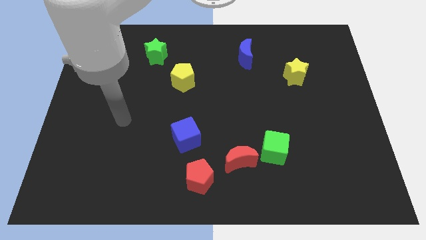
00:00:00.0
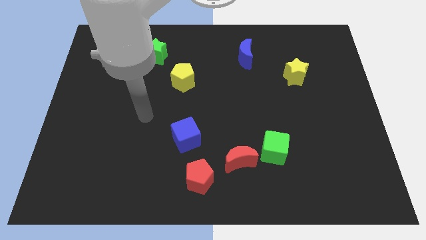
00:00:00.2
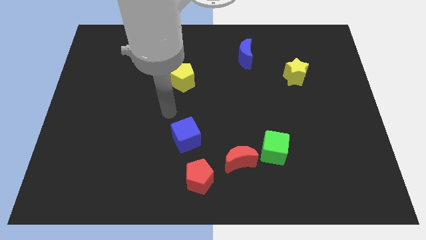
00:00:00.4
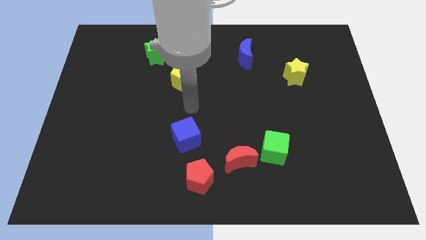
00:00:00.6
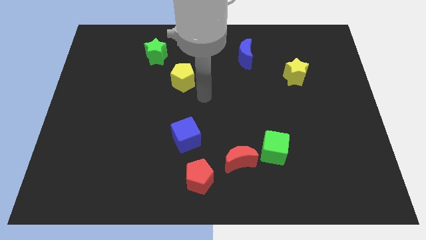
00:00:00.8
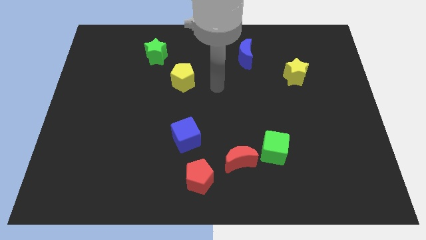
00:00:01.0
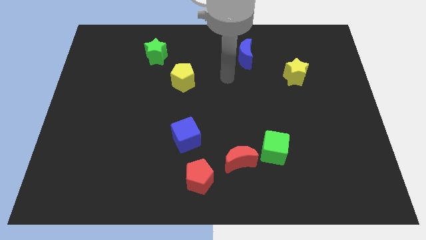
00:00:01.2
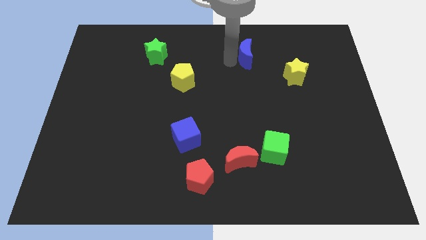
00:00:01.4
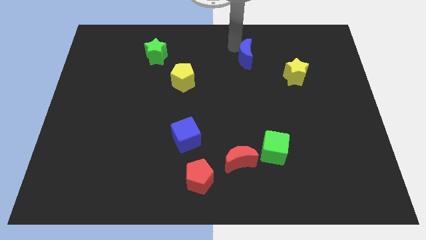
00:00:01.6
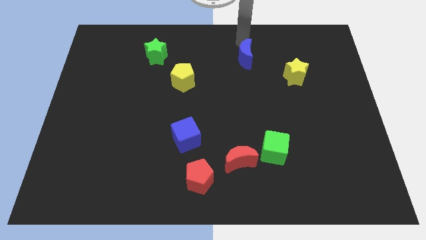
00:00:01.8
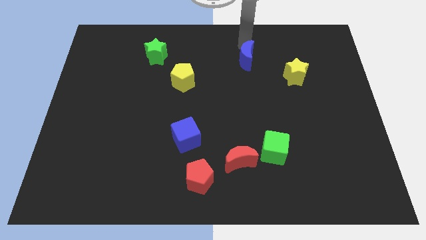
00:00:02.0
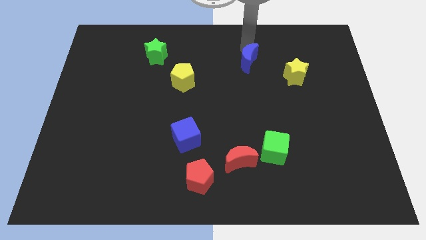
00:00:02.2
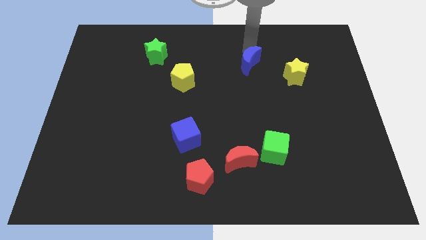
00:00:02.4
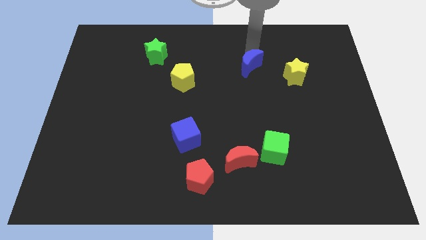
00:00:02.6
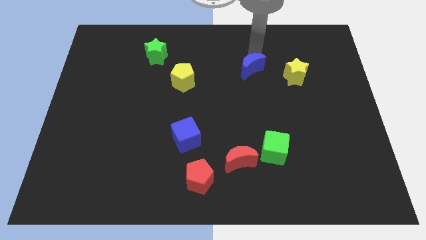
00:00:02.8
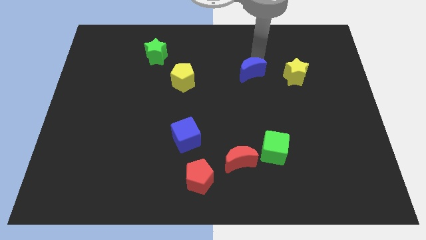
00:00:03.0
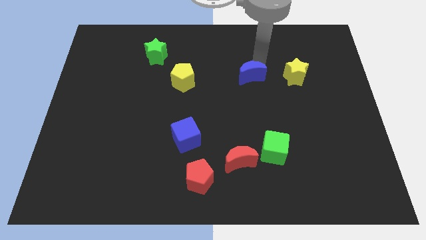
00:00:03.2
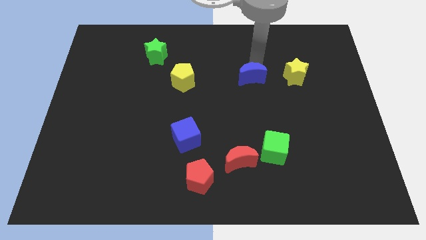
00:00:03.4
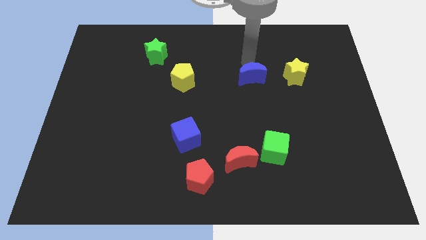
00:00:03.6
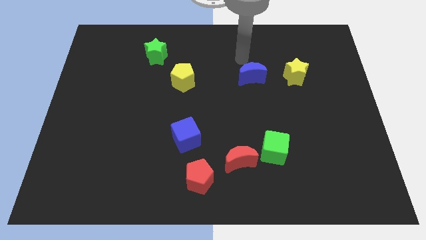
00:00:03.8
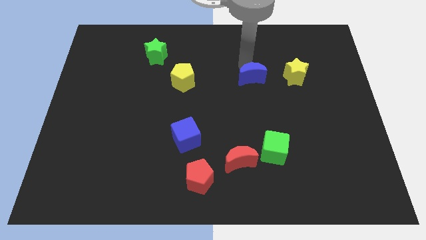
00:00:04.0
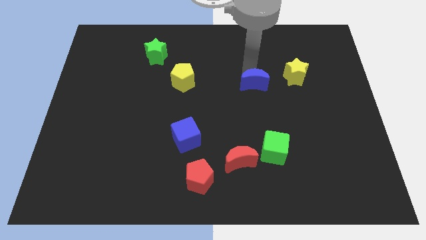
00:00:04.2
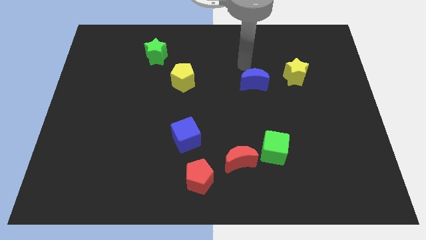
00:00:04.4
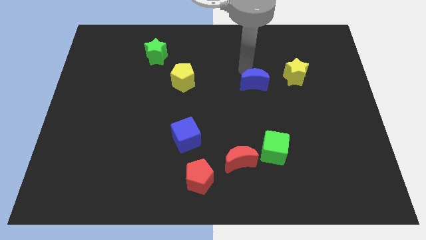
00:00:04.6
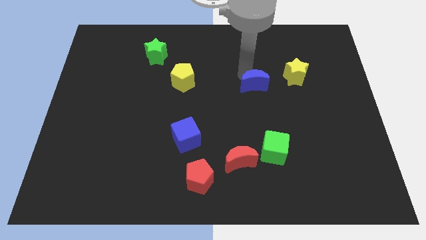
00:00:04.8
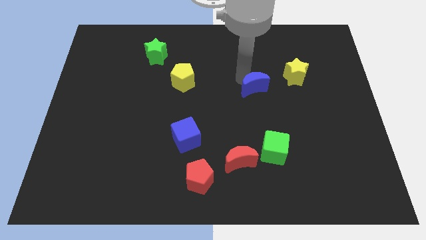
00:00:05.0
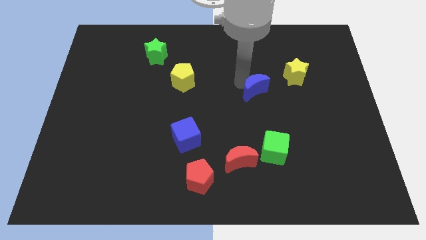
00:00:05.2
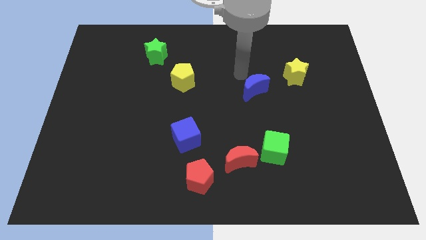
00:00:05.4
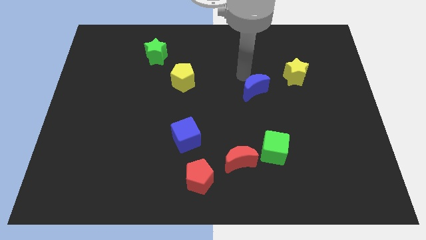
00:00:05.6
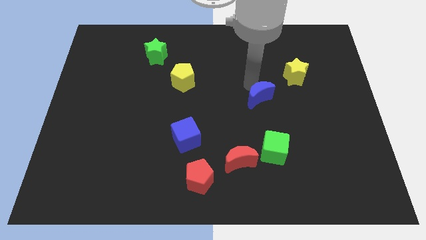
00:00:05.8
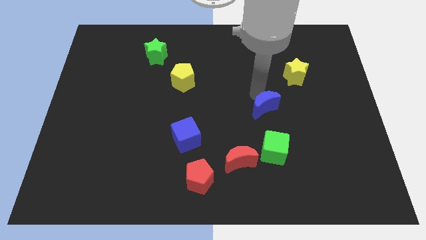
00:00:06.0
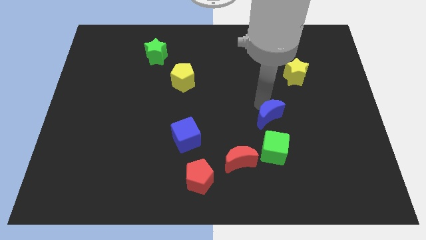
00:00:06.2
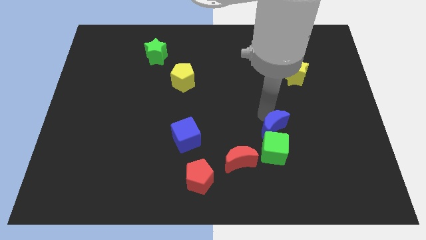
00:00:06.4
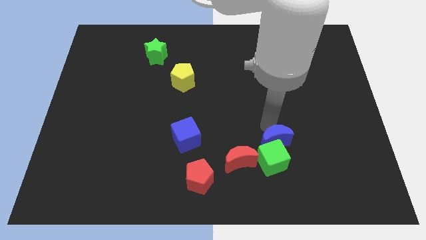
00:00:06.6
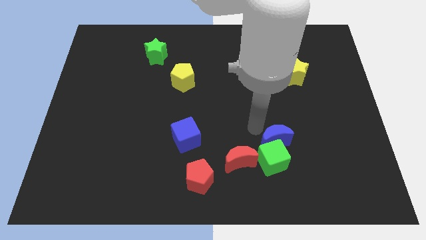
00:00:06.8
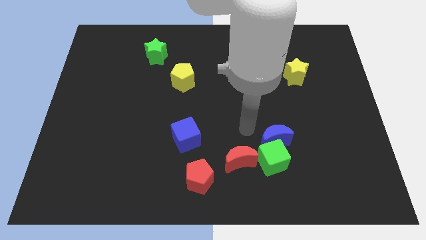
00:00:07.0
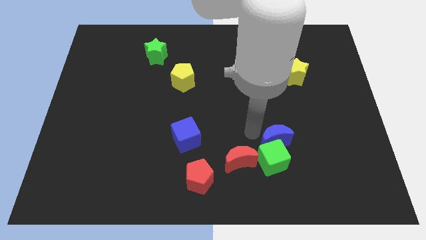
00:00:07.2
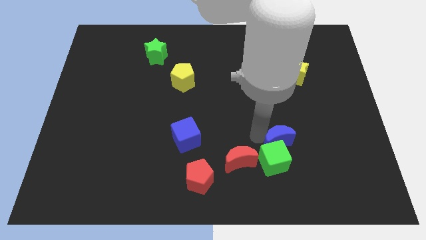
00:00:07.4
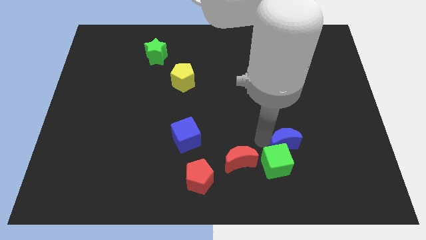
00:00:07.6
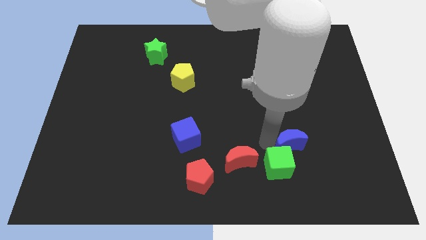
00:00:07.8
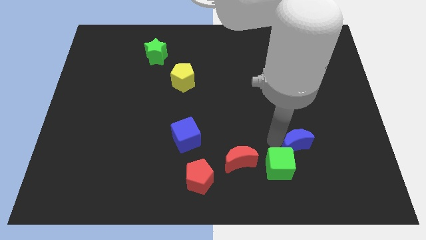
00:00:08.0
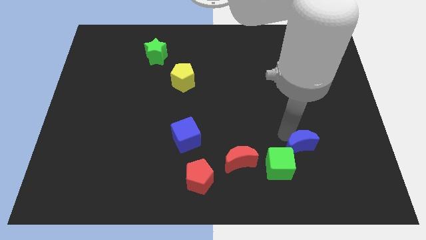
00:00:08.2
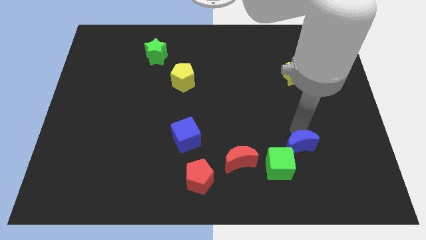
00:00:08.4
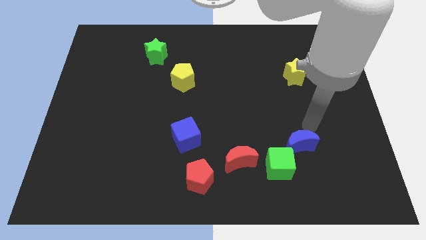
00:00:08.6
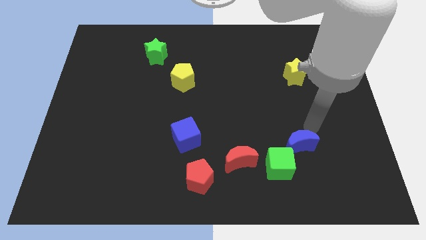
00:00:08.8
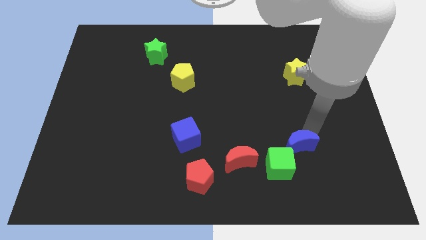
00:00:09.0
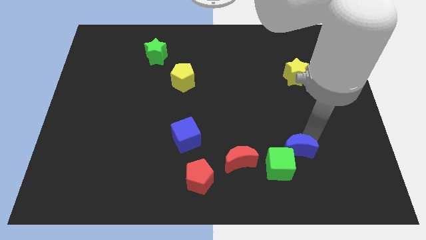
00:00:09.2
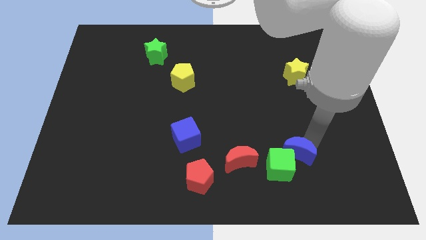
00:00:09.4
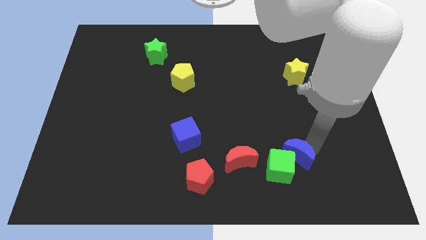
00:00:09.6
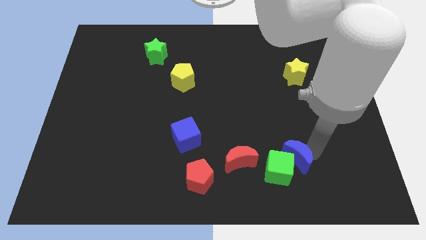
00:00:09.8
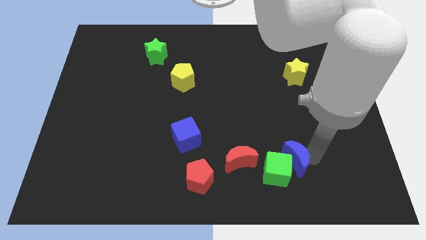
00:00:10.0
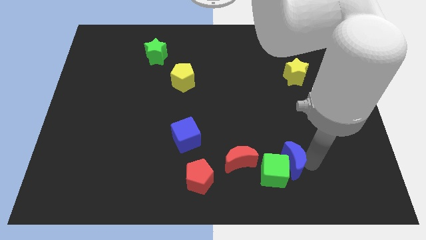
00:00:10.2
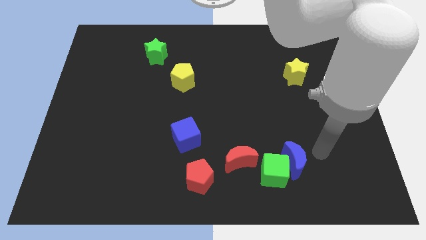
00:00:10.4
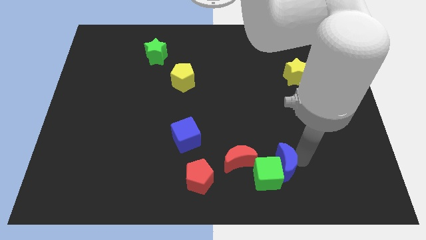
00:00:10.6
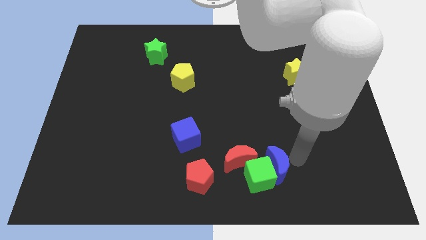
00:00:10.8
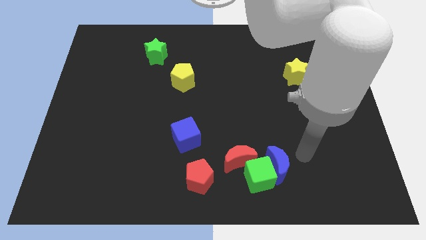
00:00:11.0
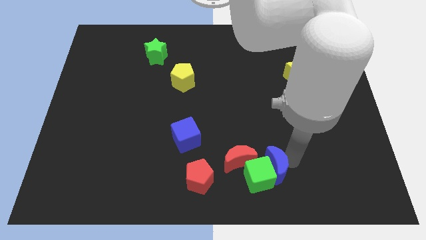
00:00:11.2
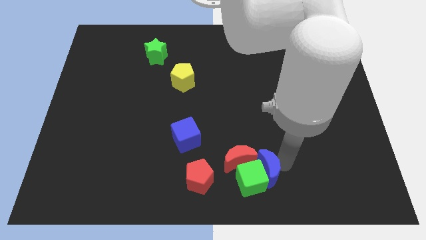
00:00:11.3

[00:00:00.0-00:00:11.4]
put the blue moon to the right side of the red pentagon

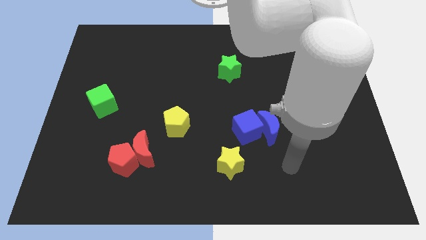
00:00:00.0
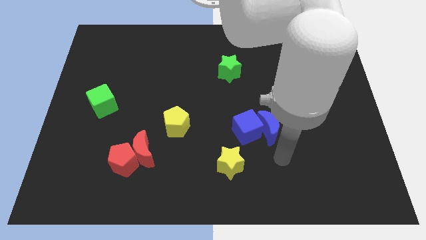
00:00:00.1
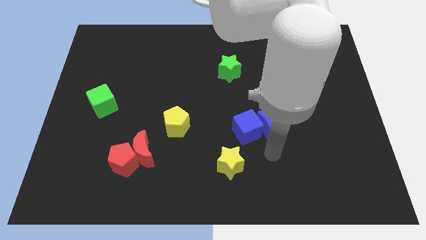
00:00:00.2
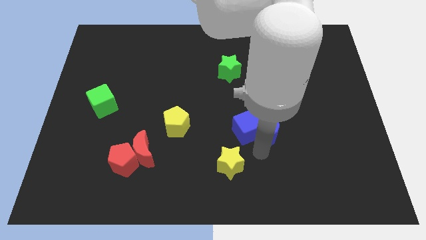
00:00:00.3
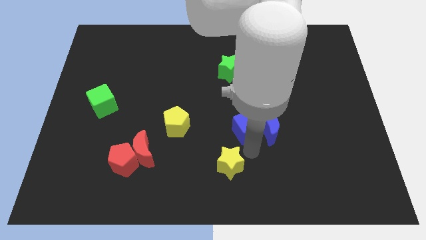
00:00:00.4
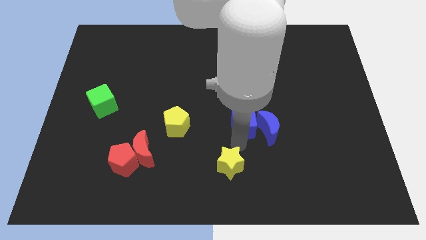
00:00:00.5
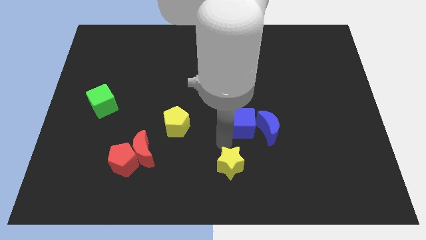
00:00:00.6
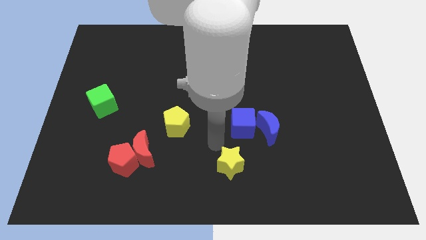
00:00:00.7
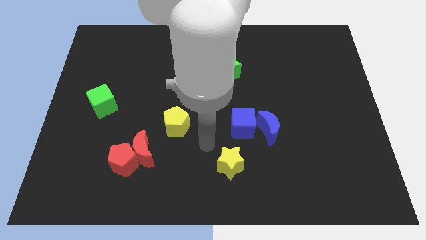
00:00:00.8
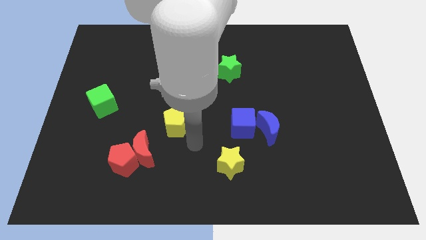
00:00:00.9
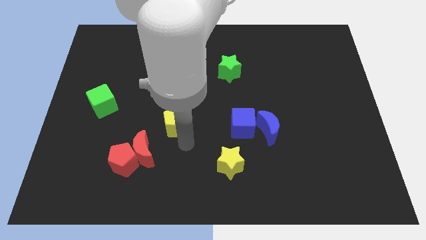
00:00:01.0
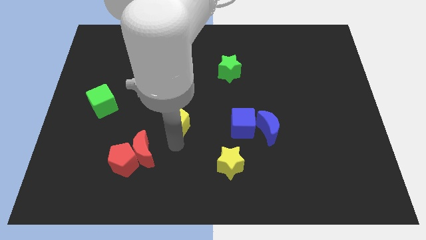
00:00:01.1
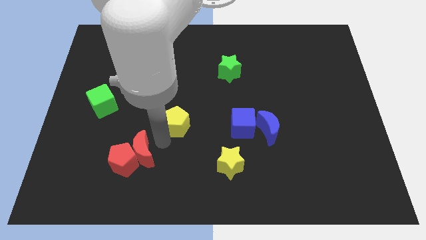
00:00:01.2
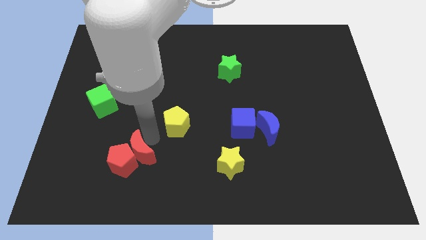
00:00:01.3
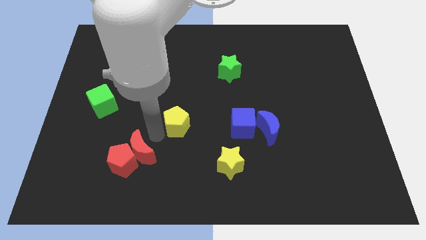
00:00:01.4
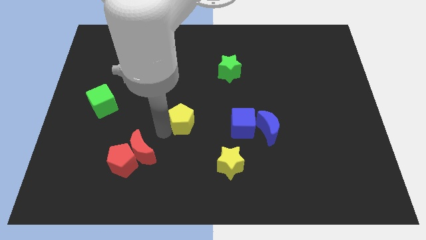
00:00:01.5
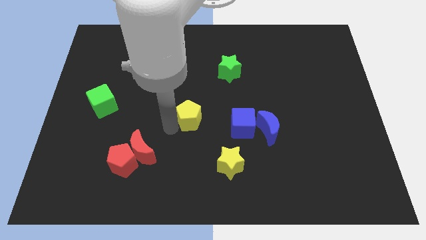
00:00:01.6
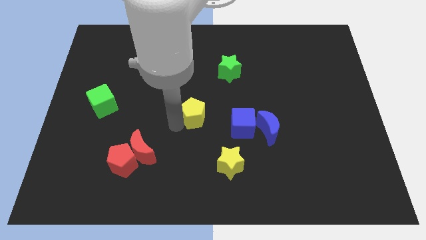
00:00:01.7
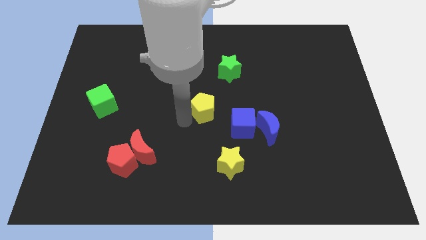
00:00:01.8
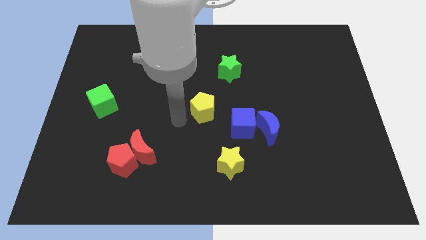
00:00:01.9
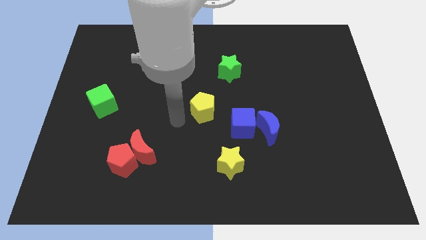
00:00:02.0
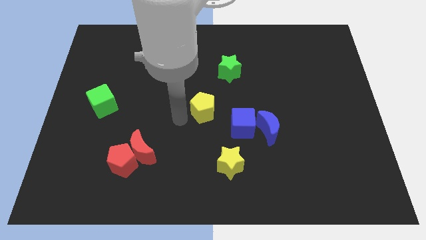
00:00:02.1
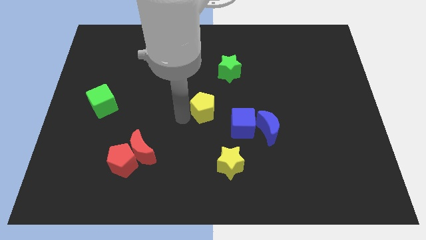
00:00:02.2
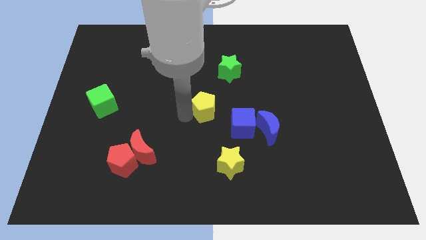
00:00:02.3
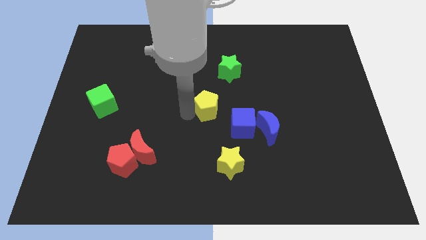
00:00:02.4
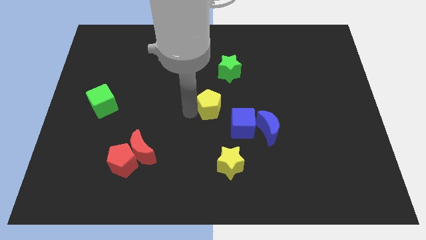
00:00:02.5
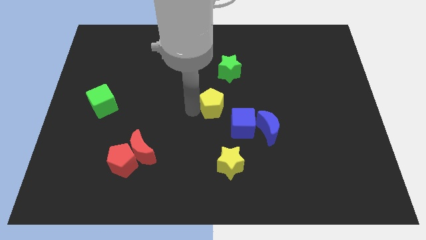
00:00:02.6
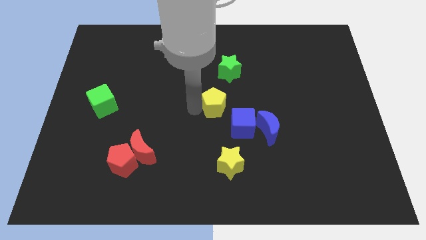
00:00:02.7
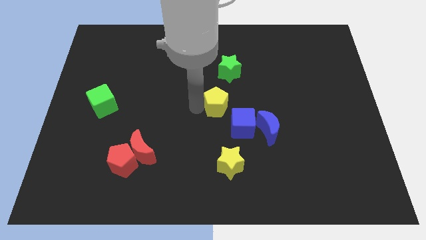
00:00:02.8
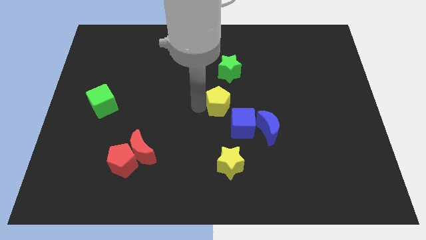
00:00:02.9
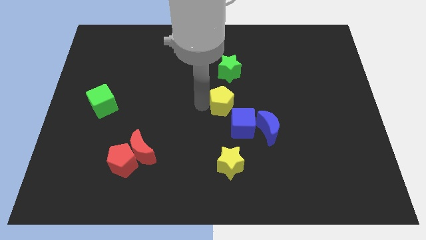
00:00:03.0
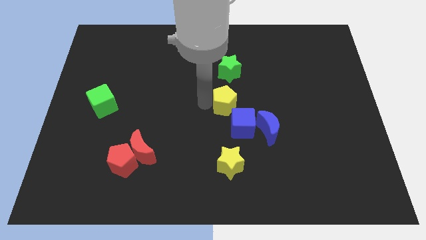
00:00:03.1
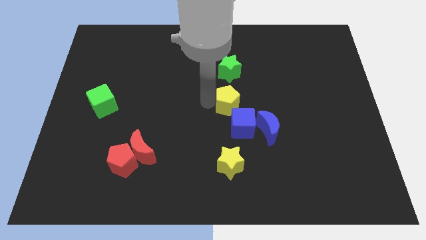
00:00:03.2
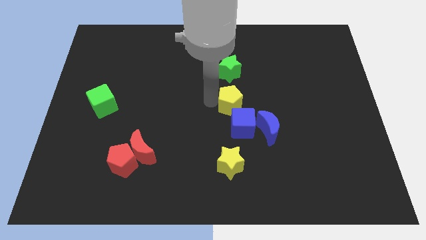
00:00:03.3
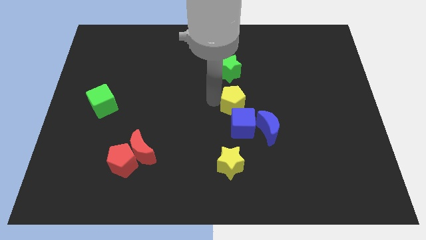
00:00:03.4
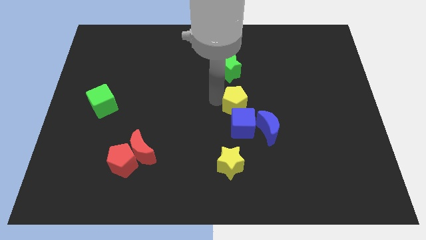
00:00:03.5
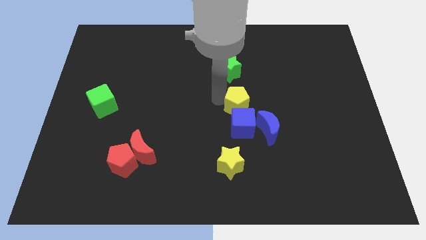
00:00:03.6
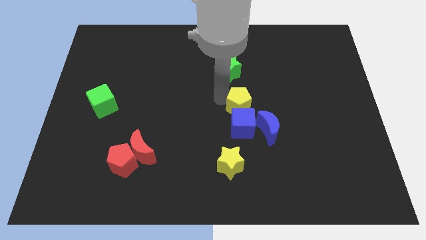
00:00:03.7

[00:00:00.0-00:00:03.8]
push the yellow pentagon to the top right of the blue cube
